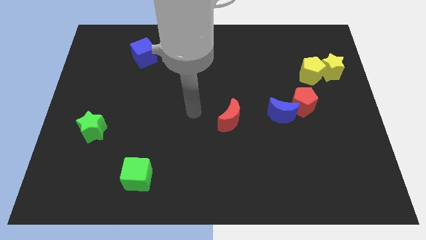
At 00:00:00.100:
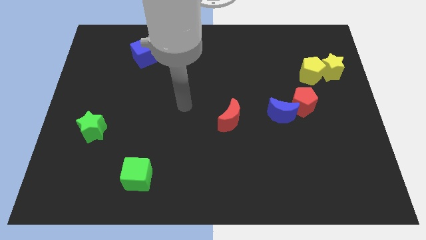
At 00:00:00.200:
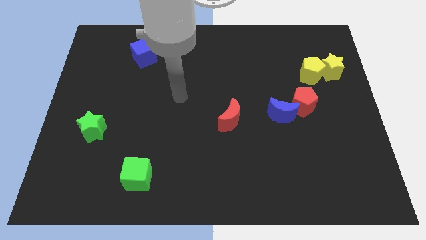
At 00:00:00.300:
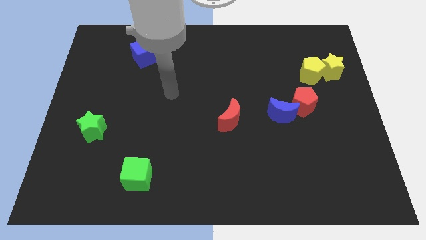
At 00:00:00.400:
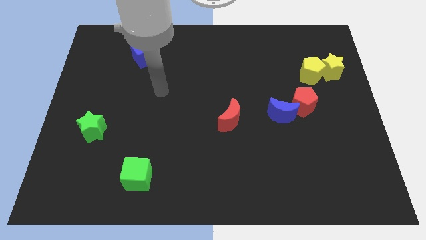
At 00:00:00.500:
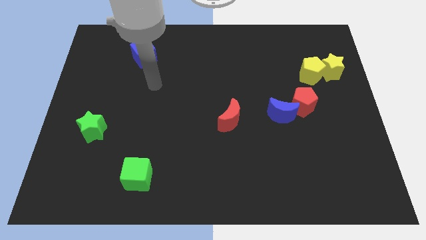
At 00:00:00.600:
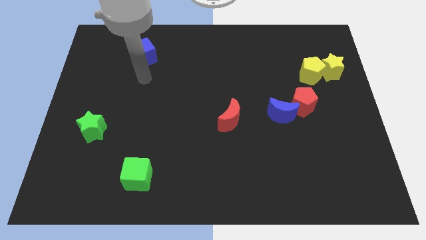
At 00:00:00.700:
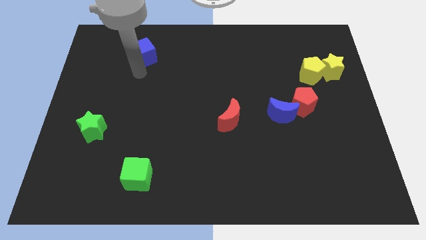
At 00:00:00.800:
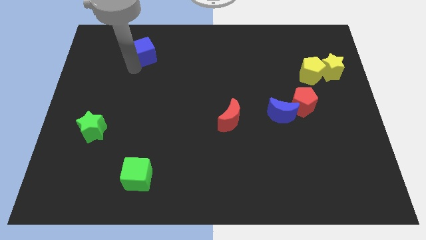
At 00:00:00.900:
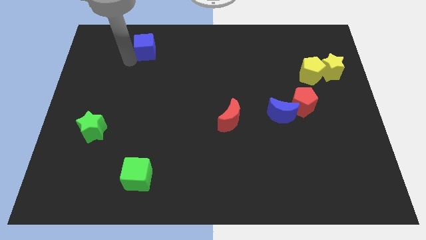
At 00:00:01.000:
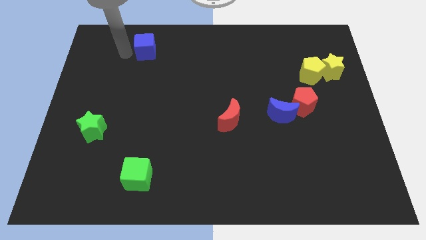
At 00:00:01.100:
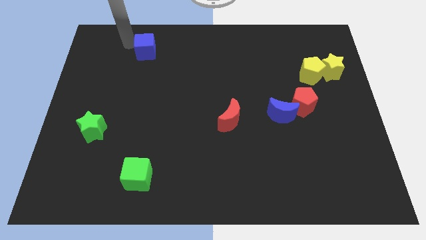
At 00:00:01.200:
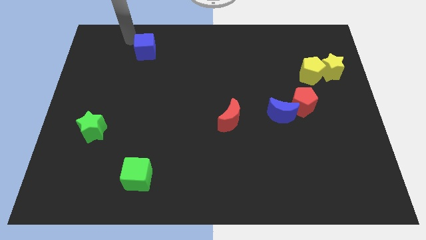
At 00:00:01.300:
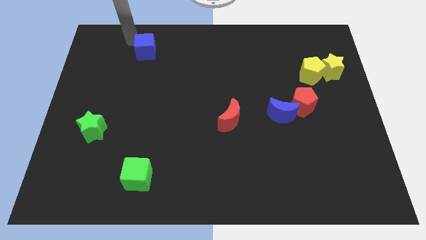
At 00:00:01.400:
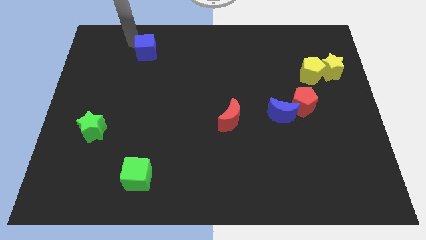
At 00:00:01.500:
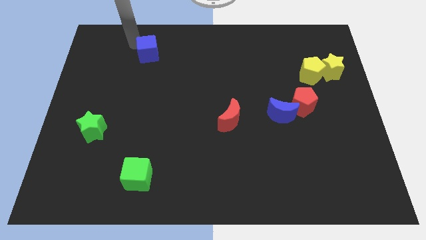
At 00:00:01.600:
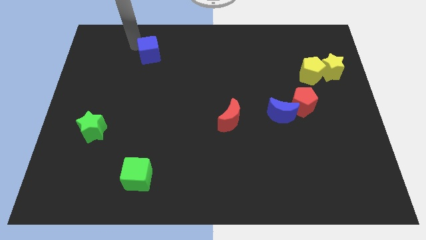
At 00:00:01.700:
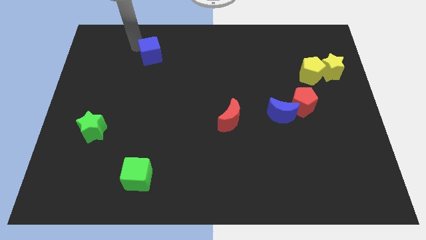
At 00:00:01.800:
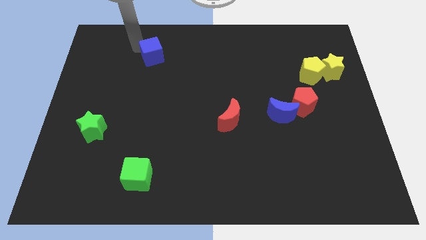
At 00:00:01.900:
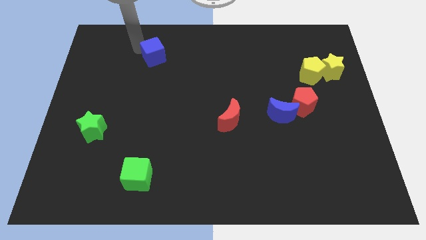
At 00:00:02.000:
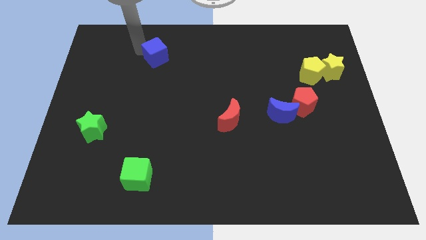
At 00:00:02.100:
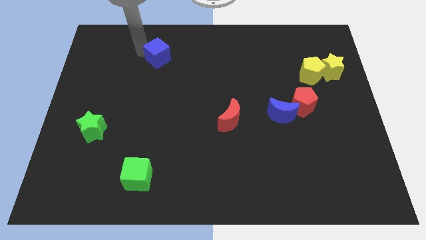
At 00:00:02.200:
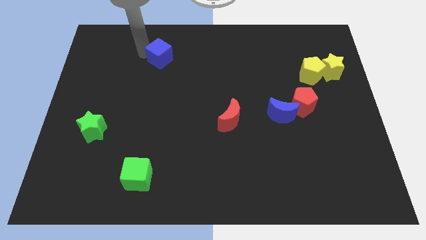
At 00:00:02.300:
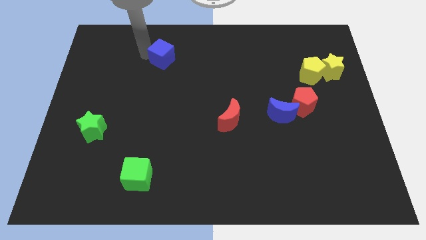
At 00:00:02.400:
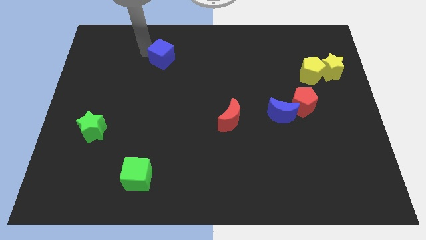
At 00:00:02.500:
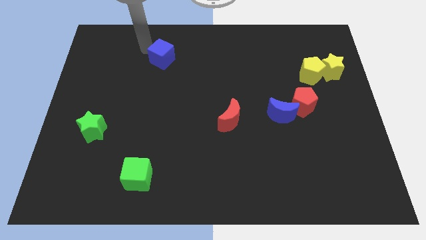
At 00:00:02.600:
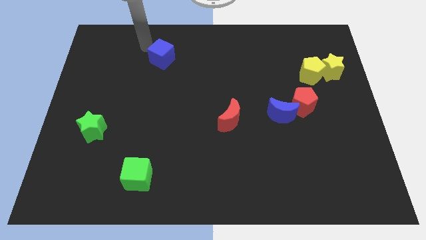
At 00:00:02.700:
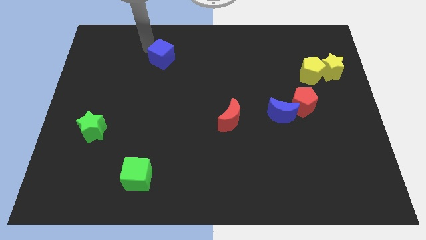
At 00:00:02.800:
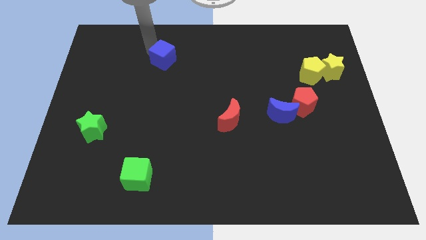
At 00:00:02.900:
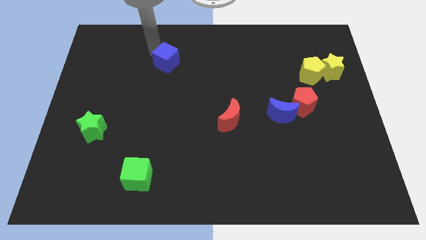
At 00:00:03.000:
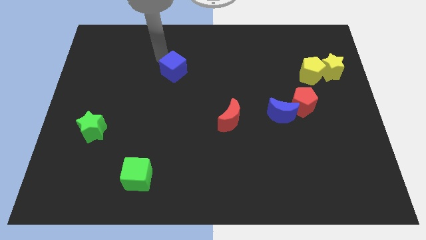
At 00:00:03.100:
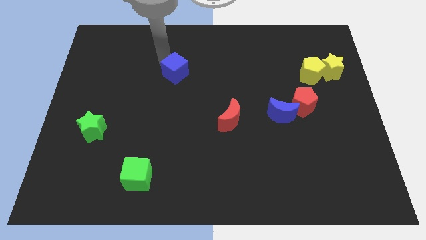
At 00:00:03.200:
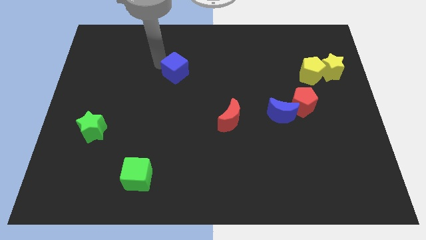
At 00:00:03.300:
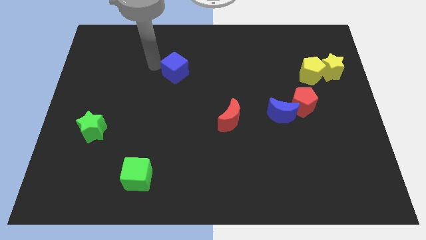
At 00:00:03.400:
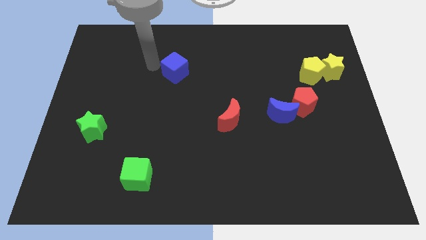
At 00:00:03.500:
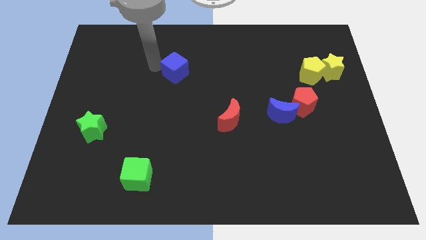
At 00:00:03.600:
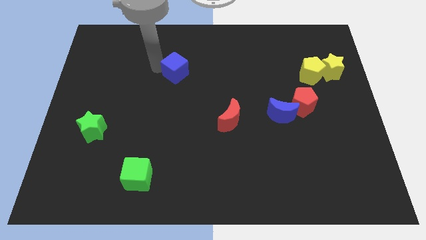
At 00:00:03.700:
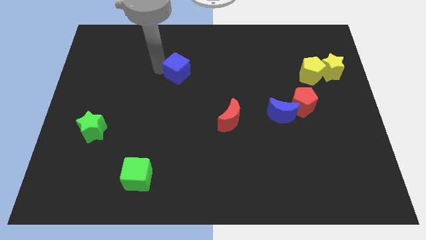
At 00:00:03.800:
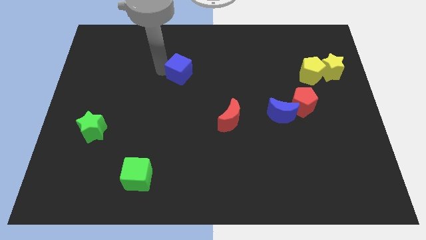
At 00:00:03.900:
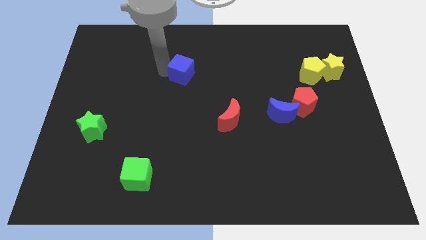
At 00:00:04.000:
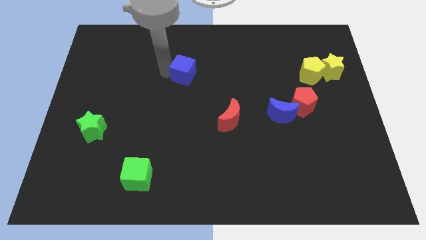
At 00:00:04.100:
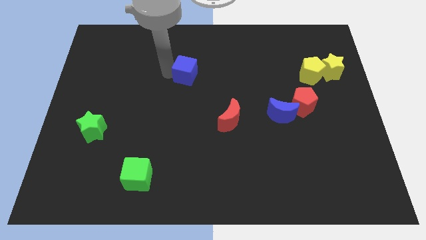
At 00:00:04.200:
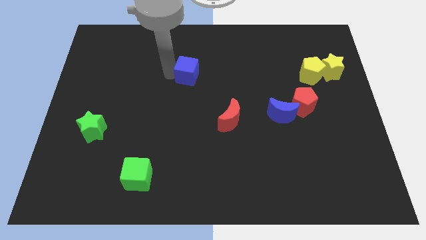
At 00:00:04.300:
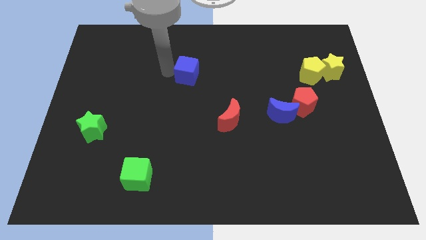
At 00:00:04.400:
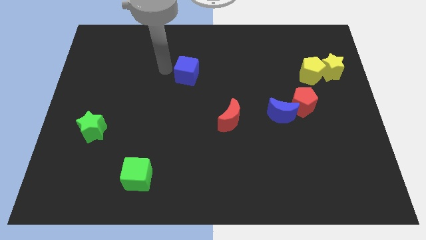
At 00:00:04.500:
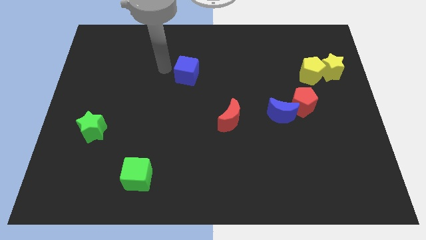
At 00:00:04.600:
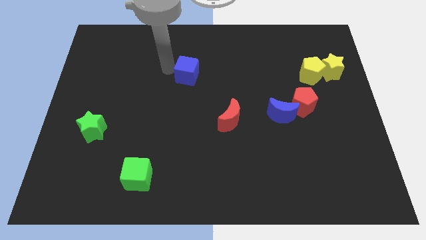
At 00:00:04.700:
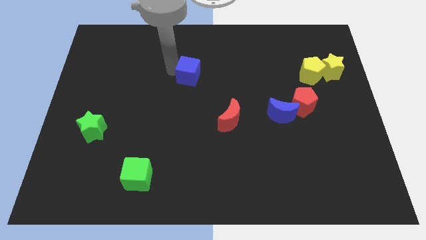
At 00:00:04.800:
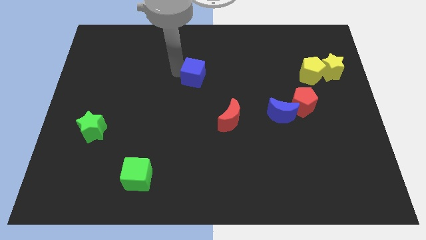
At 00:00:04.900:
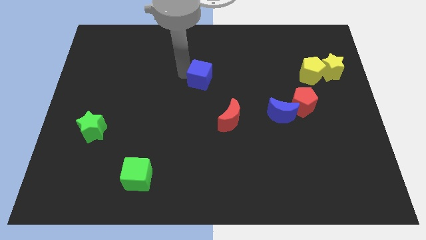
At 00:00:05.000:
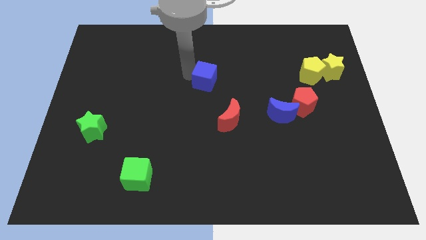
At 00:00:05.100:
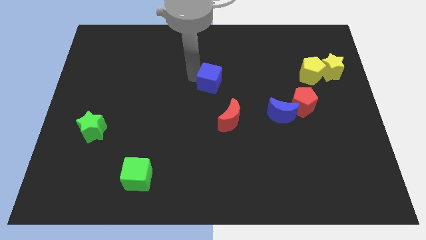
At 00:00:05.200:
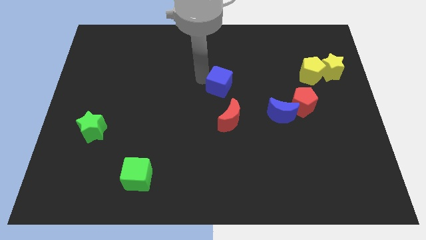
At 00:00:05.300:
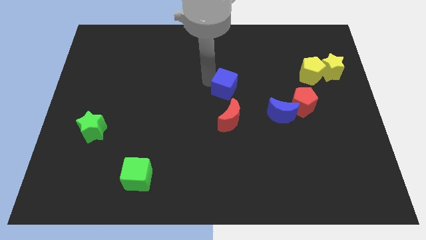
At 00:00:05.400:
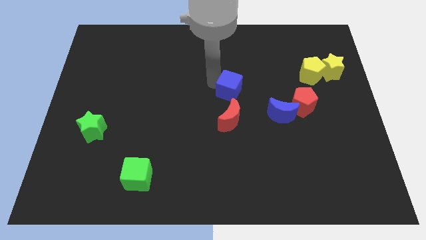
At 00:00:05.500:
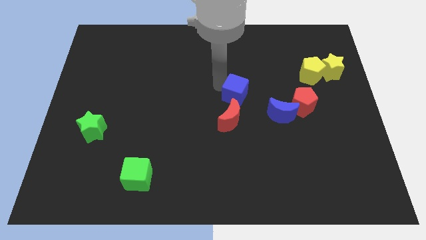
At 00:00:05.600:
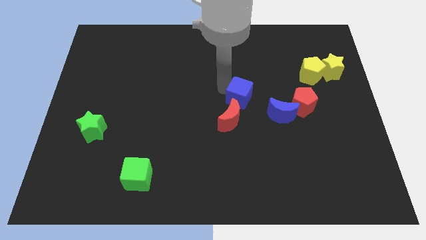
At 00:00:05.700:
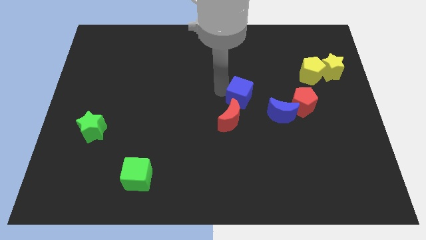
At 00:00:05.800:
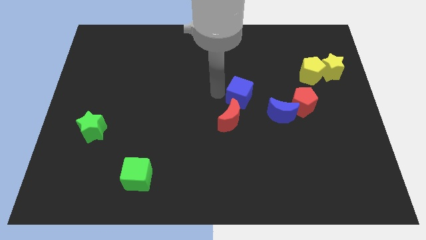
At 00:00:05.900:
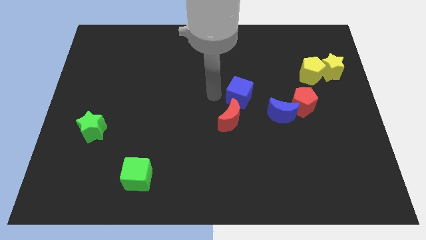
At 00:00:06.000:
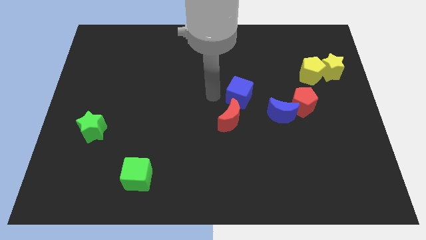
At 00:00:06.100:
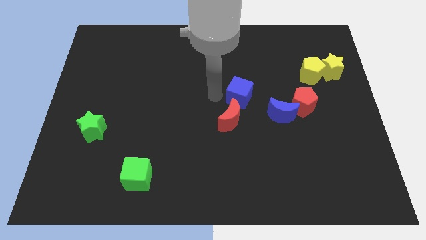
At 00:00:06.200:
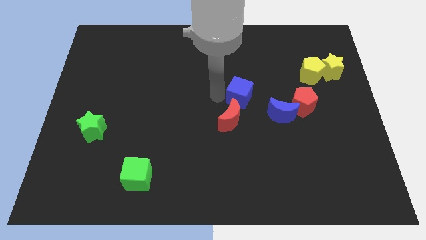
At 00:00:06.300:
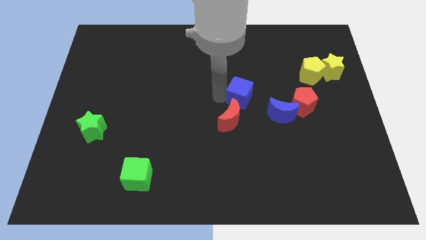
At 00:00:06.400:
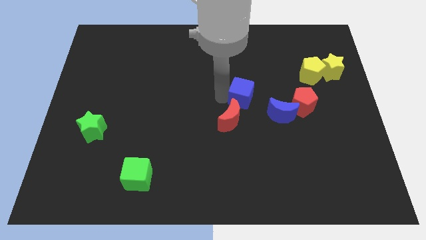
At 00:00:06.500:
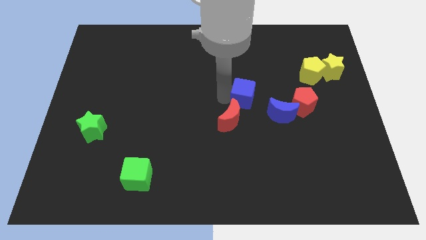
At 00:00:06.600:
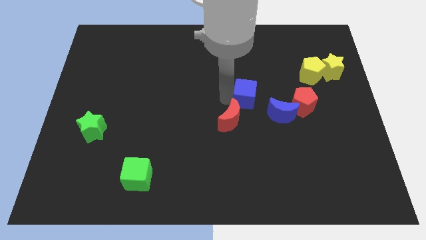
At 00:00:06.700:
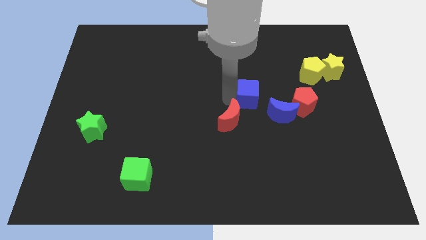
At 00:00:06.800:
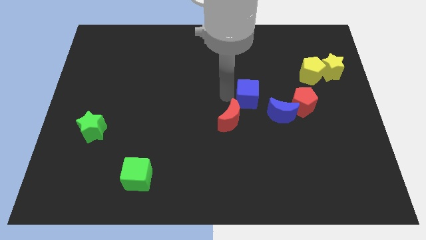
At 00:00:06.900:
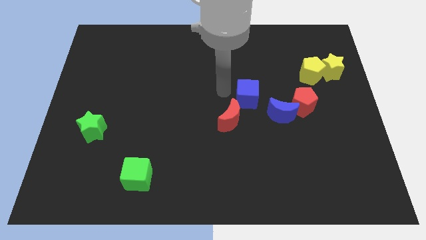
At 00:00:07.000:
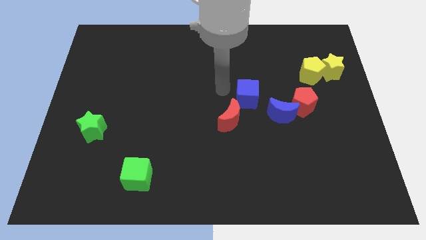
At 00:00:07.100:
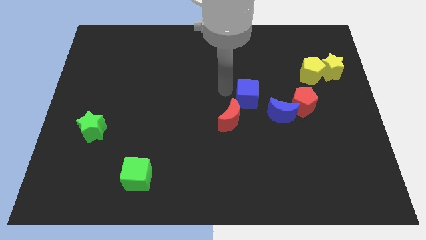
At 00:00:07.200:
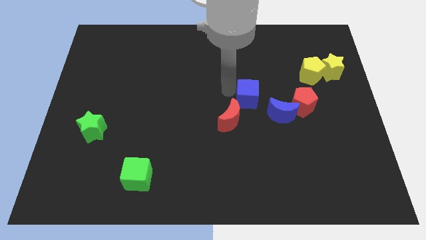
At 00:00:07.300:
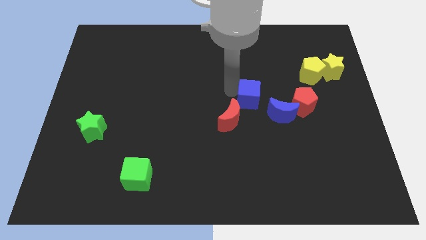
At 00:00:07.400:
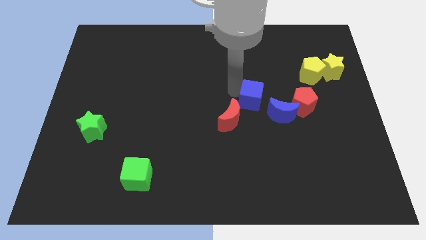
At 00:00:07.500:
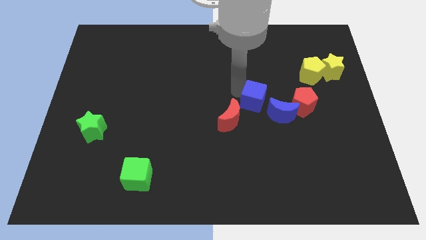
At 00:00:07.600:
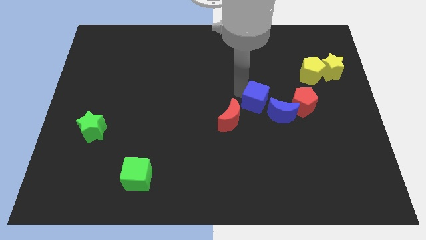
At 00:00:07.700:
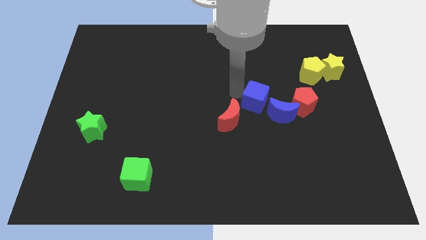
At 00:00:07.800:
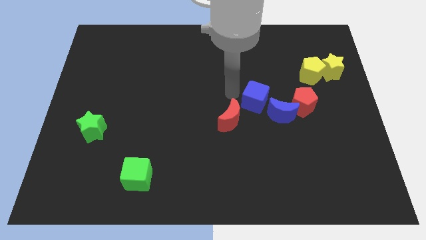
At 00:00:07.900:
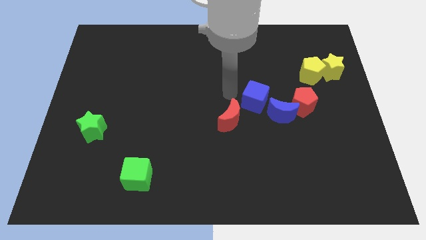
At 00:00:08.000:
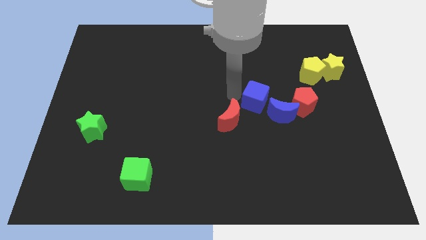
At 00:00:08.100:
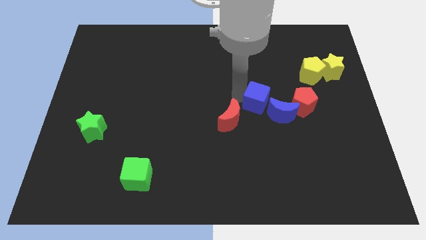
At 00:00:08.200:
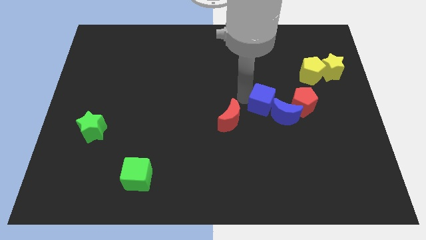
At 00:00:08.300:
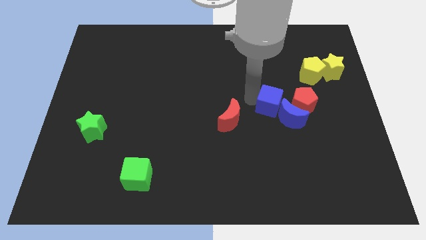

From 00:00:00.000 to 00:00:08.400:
put the blue cube next to the blue moon
